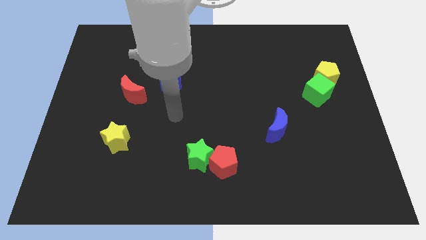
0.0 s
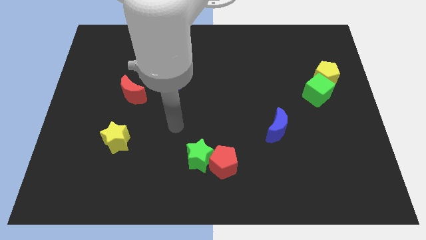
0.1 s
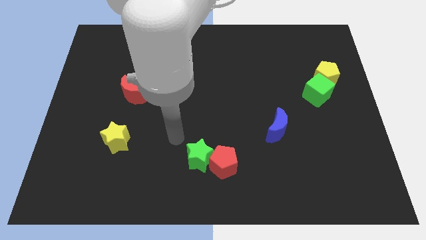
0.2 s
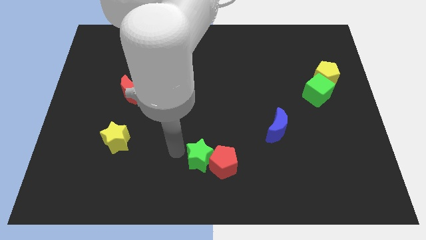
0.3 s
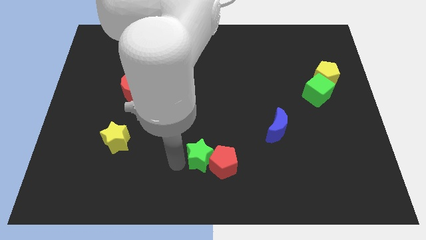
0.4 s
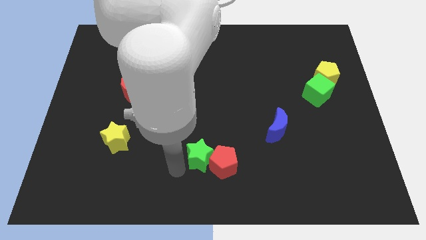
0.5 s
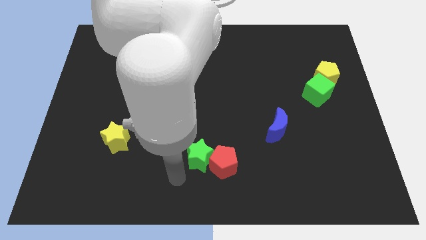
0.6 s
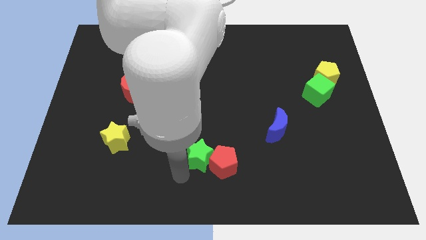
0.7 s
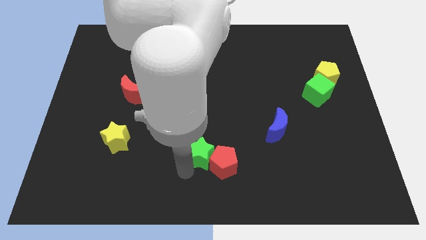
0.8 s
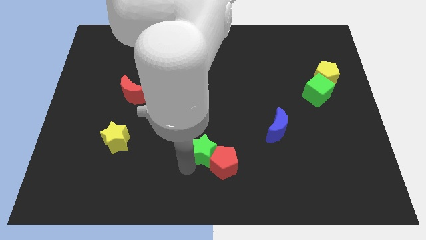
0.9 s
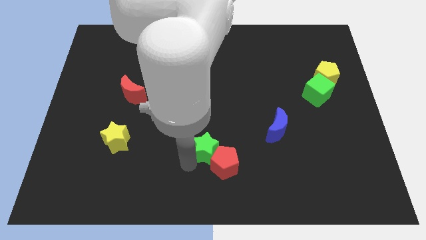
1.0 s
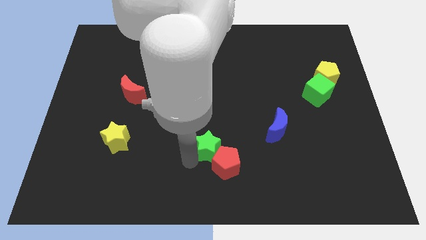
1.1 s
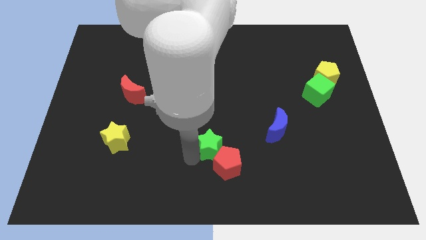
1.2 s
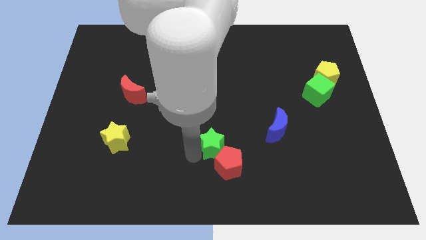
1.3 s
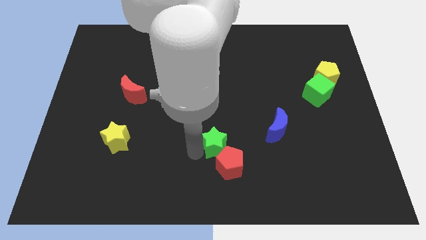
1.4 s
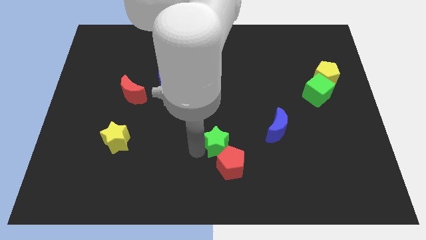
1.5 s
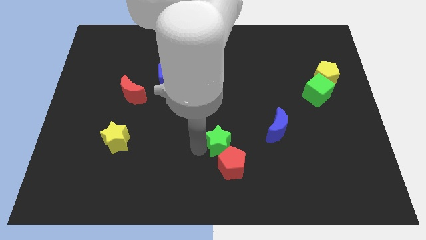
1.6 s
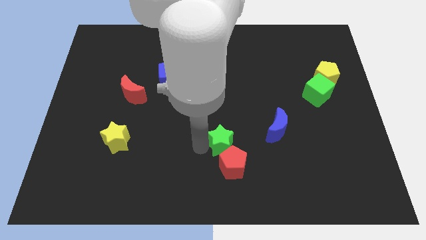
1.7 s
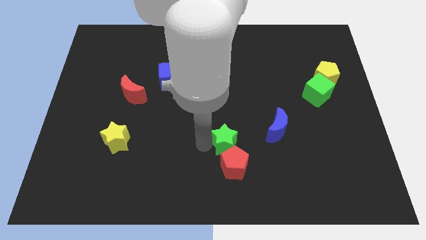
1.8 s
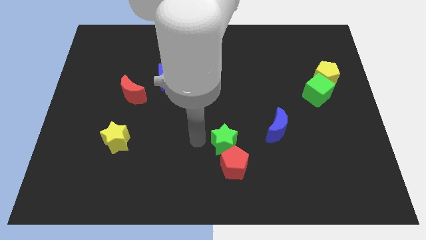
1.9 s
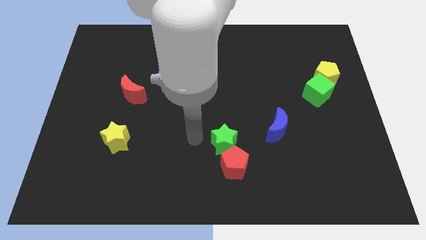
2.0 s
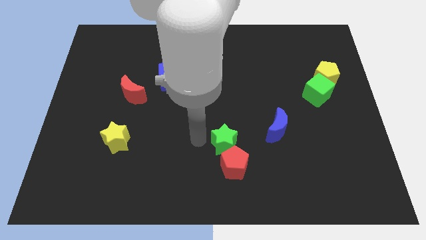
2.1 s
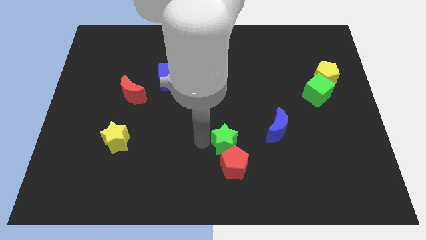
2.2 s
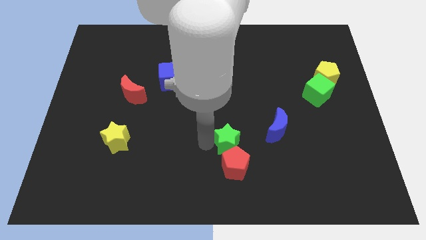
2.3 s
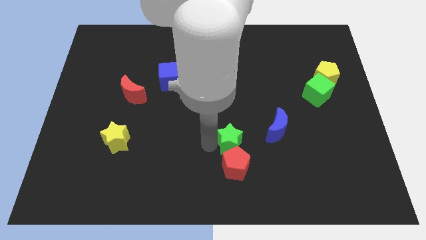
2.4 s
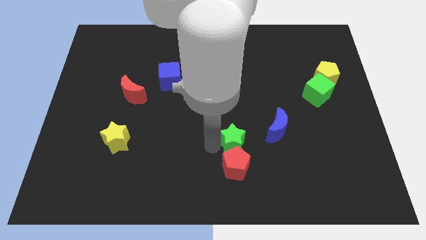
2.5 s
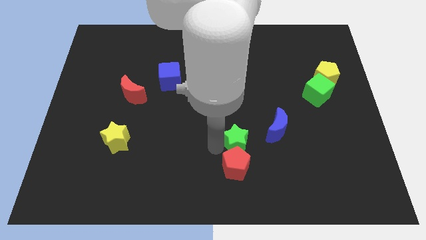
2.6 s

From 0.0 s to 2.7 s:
slightly push the green star to the right

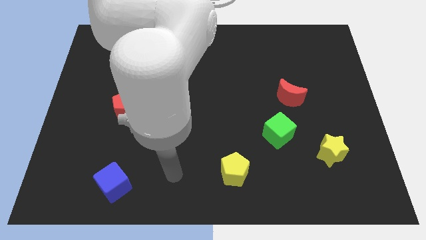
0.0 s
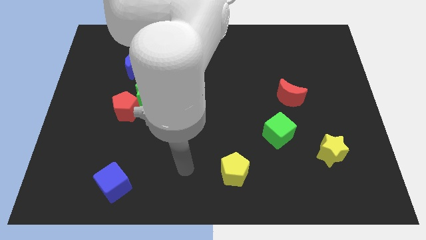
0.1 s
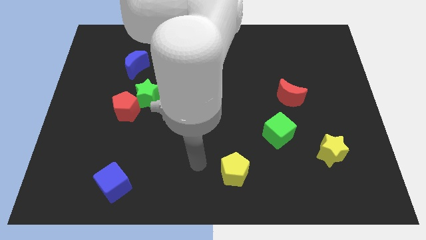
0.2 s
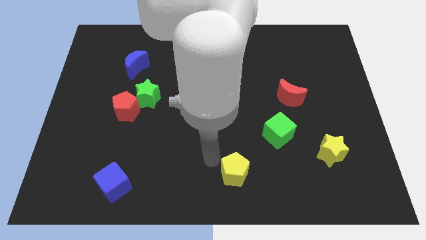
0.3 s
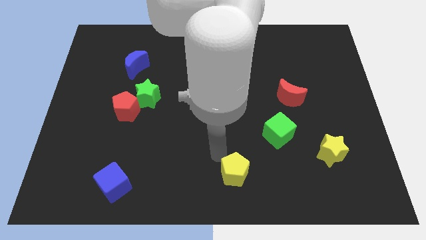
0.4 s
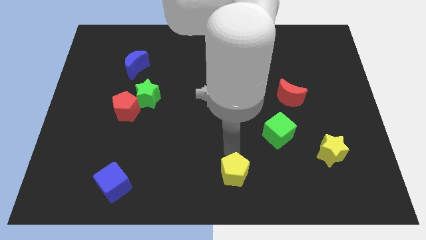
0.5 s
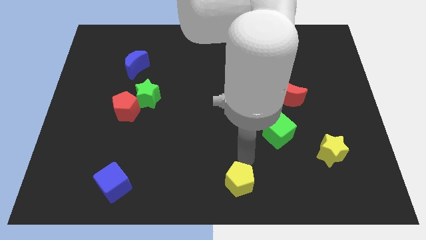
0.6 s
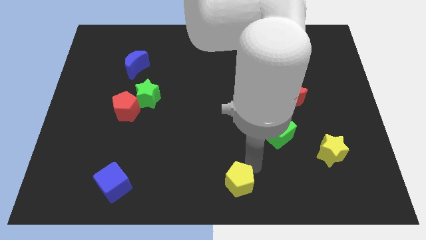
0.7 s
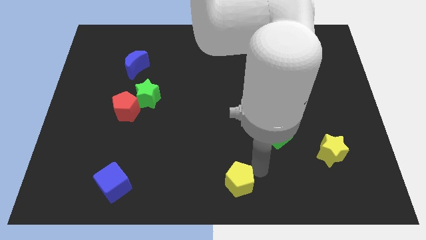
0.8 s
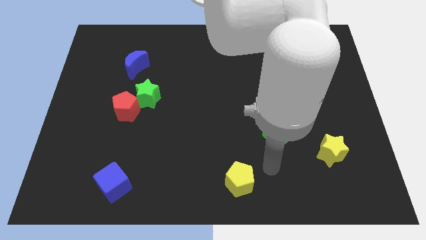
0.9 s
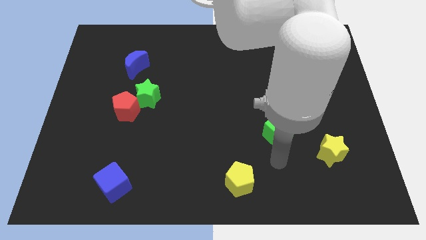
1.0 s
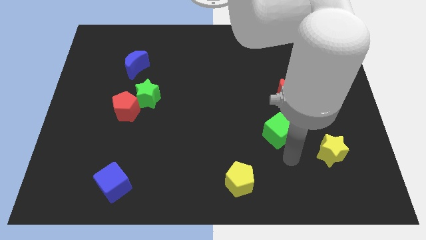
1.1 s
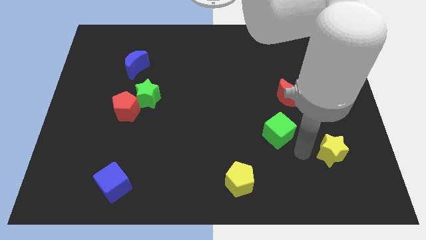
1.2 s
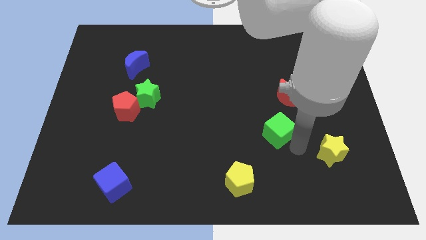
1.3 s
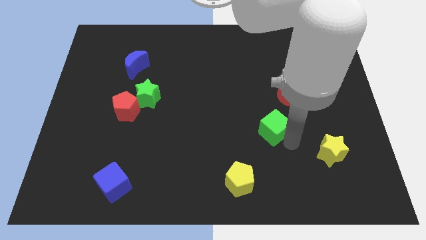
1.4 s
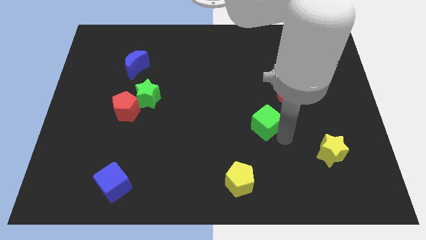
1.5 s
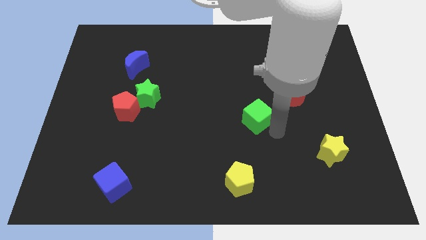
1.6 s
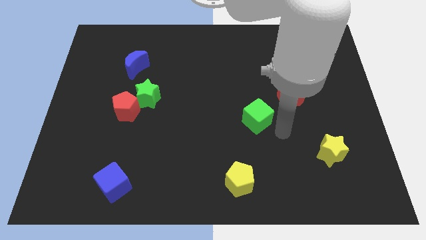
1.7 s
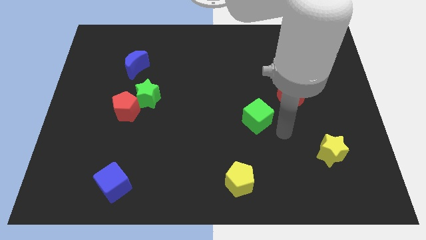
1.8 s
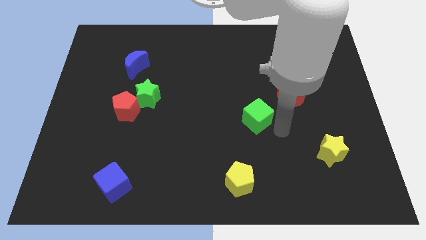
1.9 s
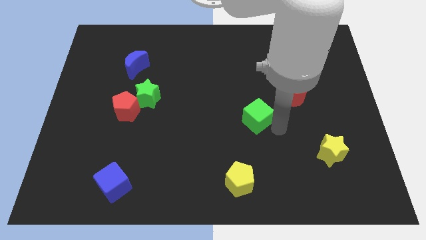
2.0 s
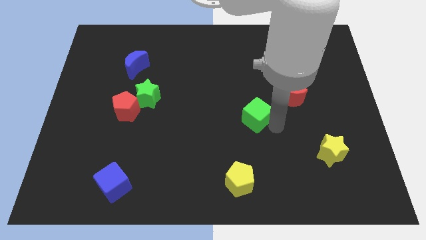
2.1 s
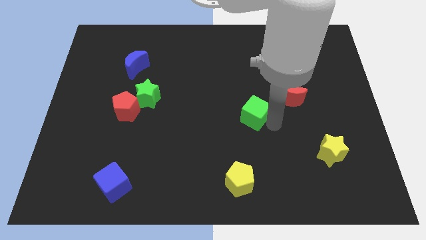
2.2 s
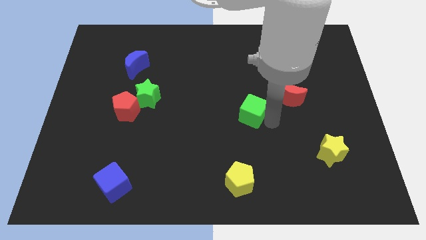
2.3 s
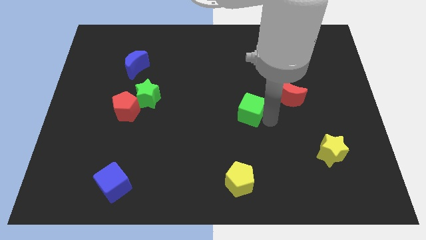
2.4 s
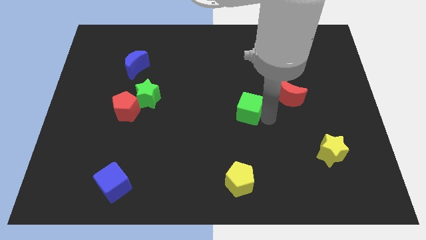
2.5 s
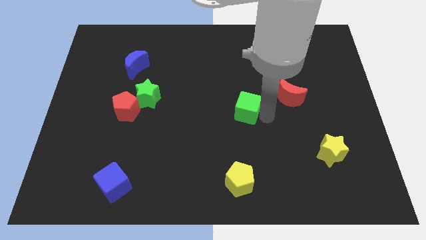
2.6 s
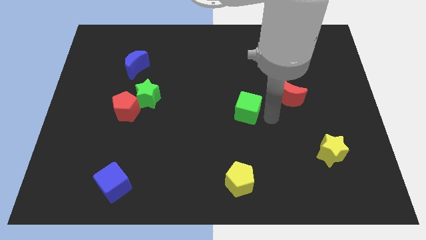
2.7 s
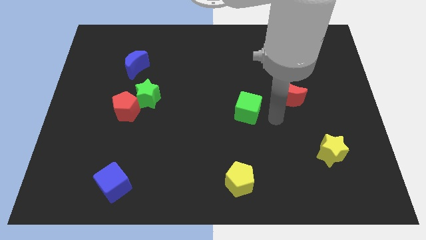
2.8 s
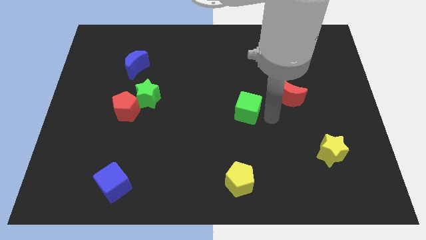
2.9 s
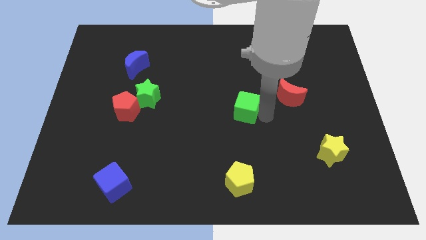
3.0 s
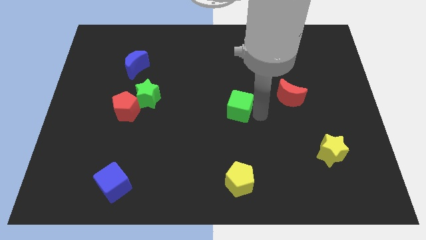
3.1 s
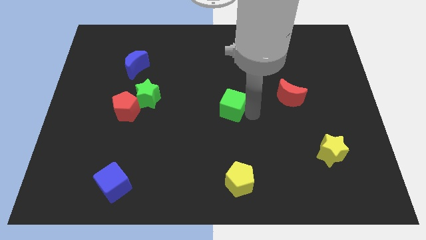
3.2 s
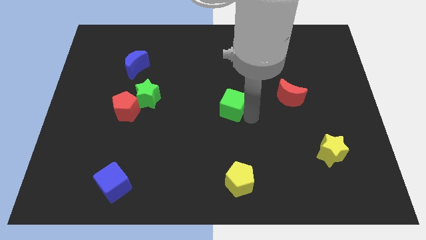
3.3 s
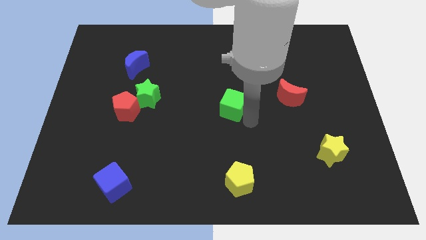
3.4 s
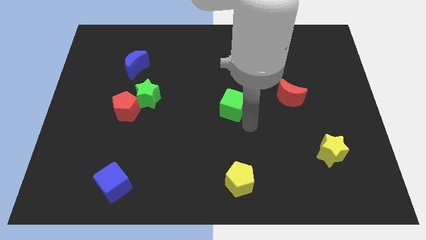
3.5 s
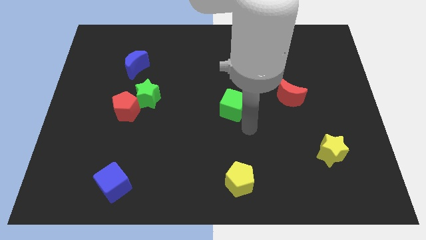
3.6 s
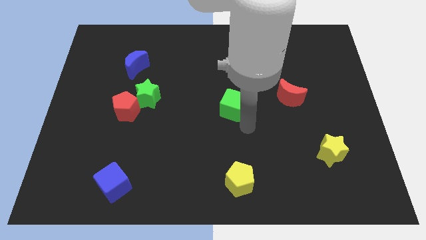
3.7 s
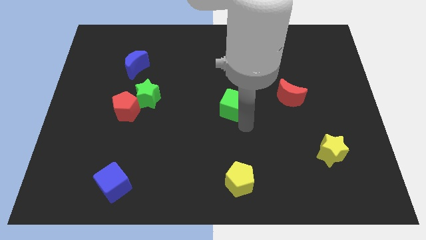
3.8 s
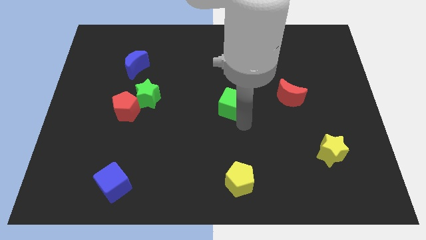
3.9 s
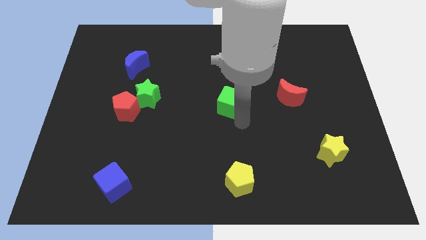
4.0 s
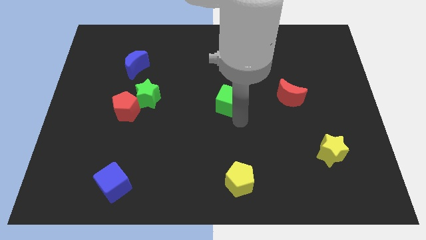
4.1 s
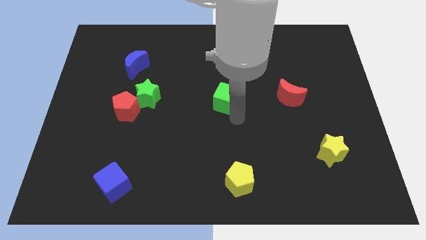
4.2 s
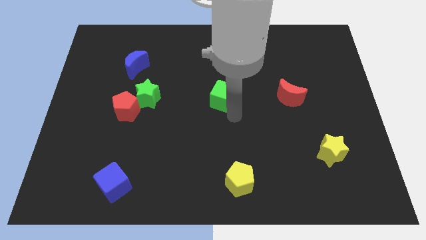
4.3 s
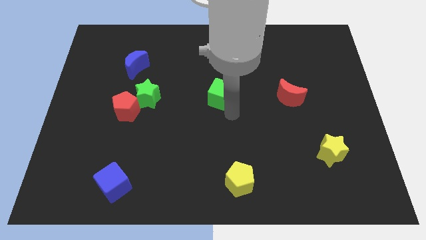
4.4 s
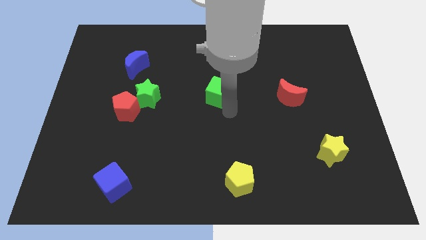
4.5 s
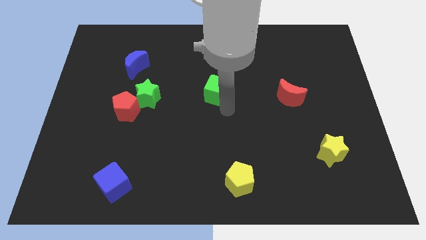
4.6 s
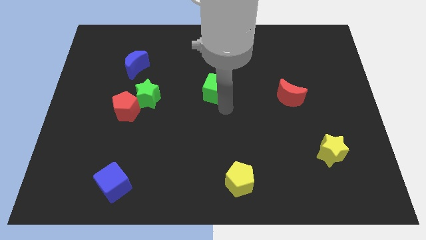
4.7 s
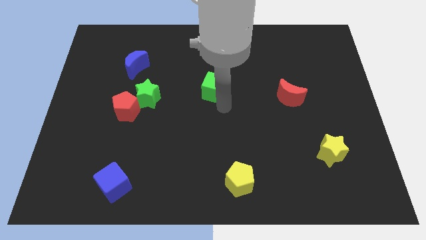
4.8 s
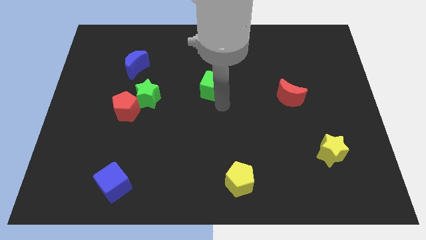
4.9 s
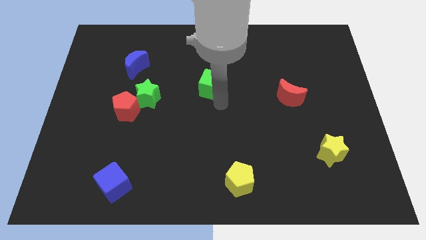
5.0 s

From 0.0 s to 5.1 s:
push the green cube diagonally upwards and left

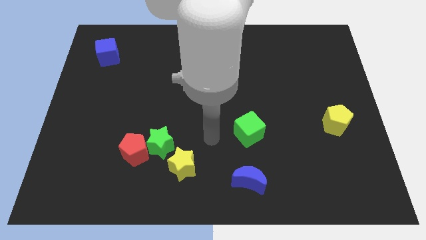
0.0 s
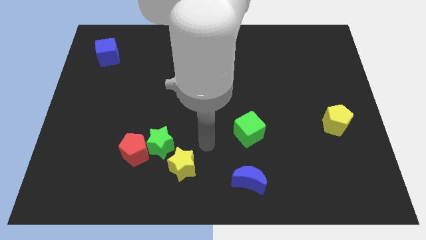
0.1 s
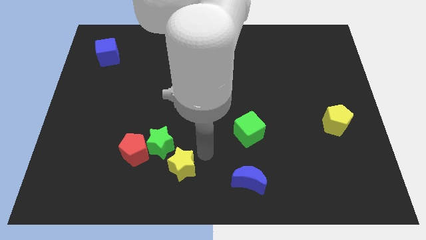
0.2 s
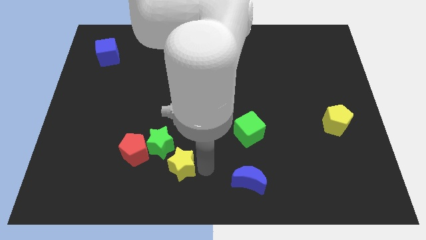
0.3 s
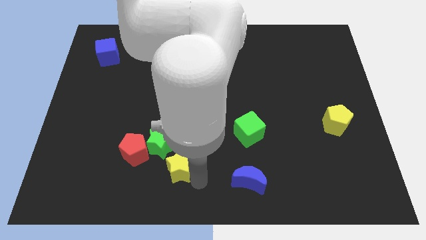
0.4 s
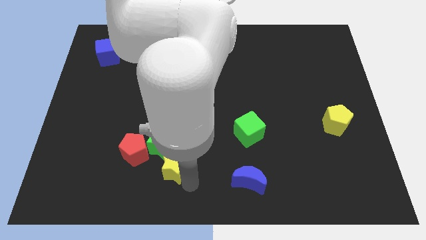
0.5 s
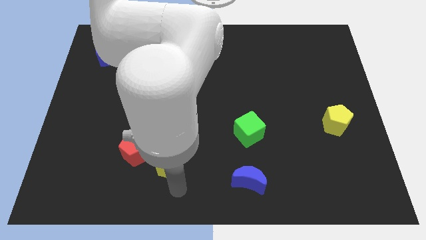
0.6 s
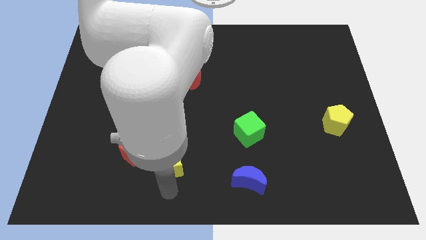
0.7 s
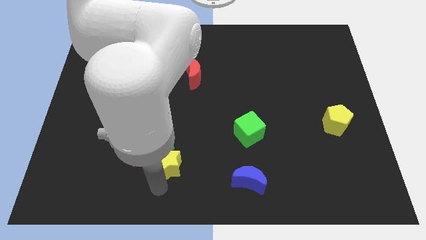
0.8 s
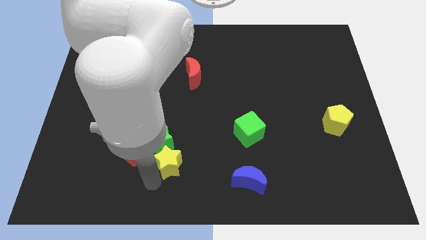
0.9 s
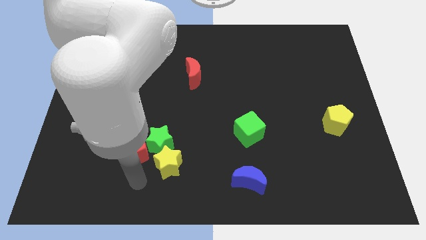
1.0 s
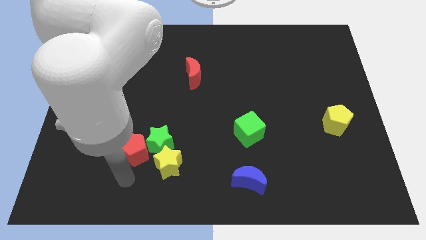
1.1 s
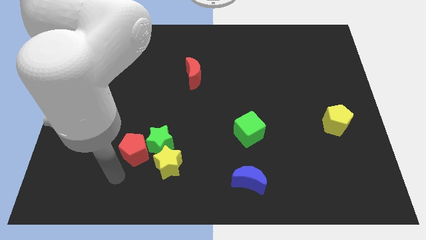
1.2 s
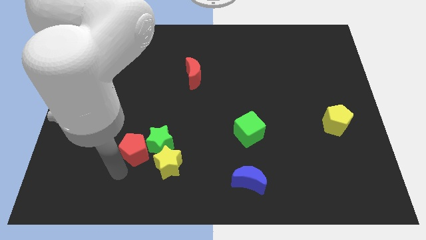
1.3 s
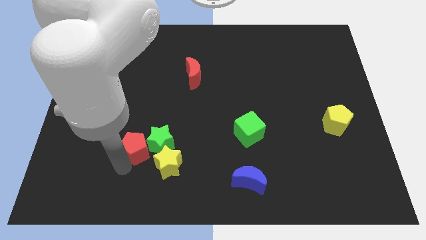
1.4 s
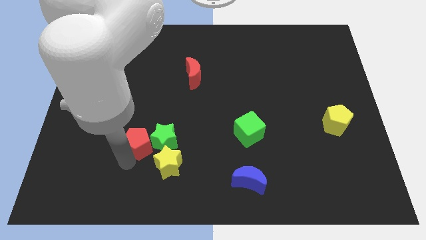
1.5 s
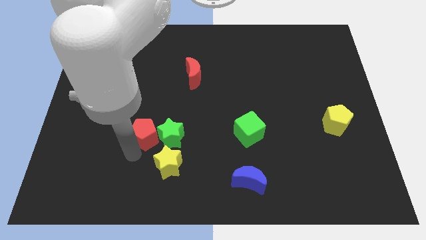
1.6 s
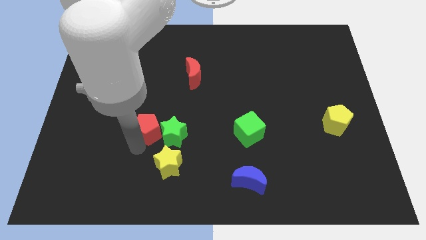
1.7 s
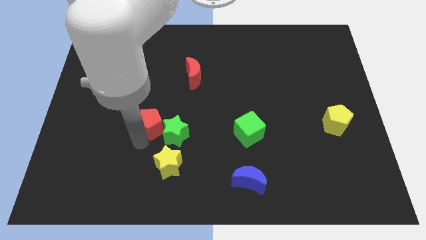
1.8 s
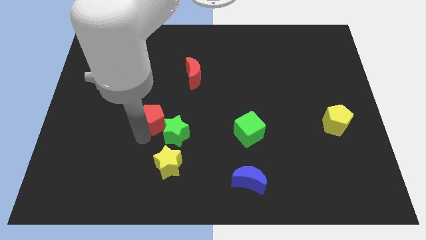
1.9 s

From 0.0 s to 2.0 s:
slightly move the red pentagon upwards and then right
